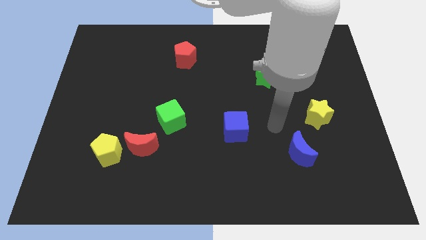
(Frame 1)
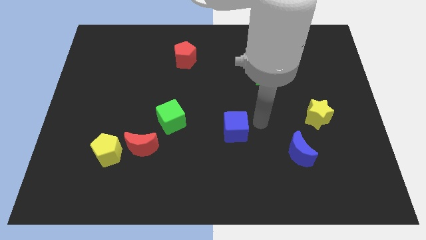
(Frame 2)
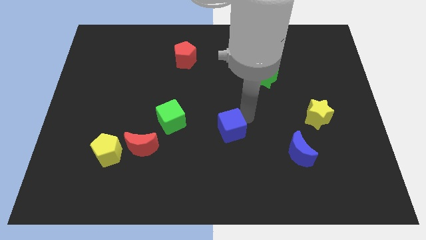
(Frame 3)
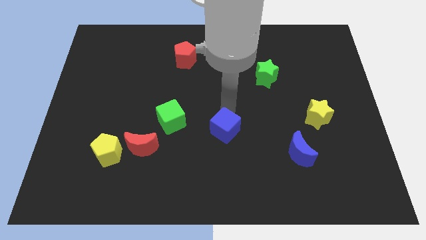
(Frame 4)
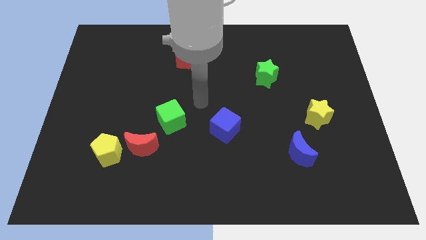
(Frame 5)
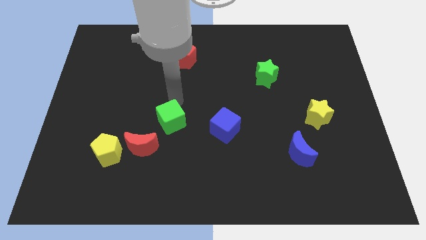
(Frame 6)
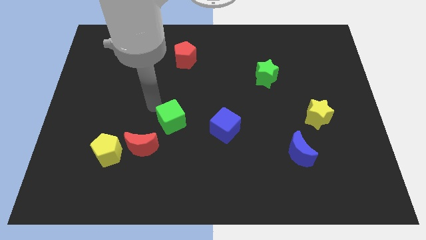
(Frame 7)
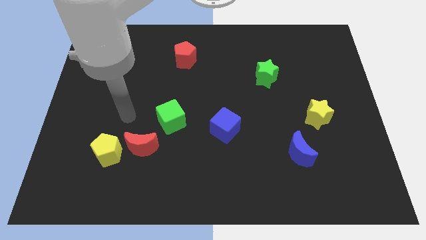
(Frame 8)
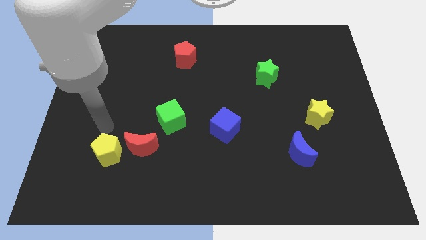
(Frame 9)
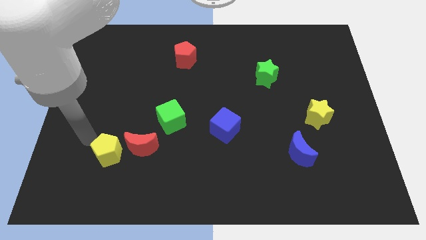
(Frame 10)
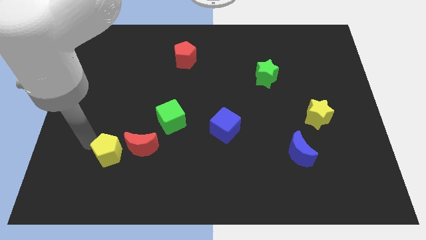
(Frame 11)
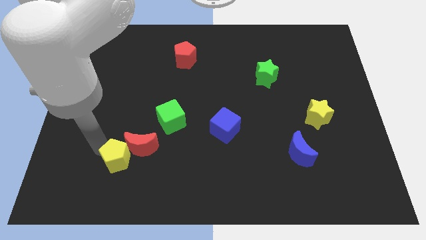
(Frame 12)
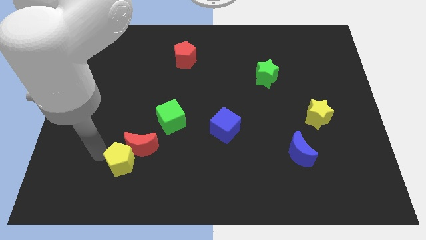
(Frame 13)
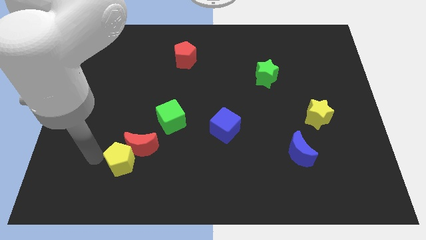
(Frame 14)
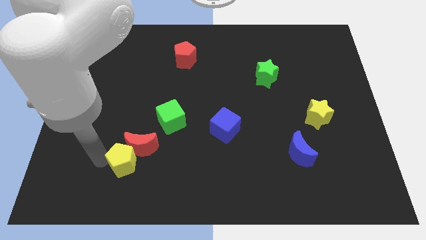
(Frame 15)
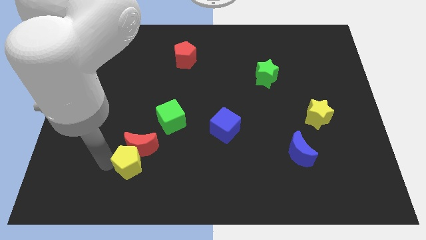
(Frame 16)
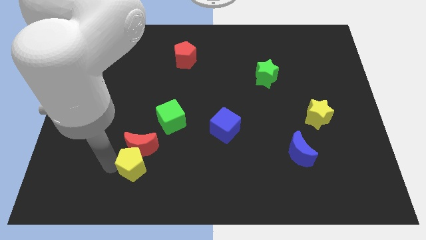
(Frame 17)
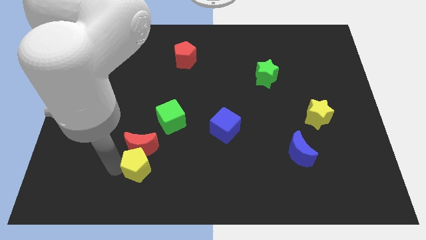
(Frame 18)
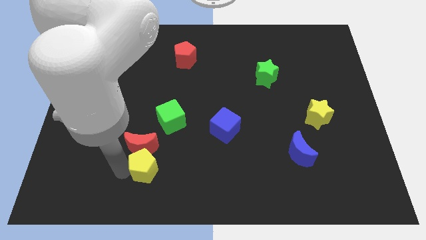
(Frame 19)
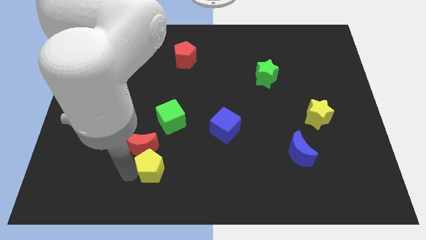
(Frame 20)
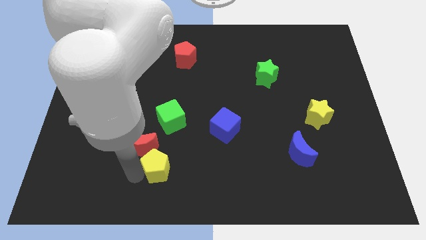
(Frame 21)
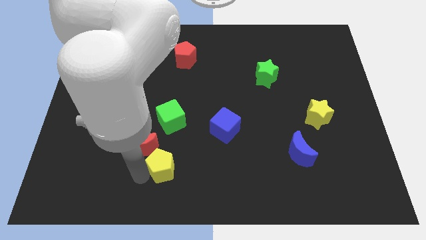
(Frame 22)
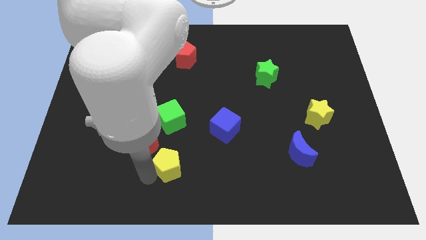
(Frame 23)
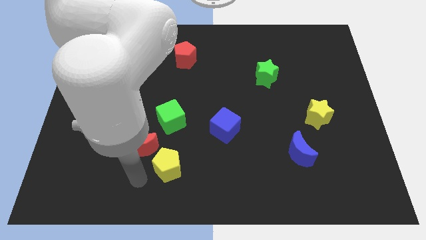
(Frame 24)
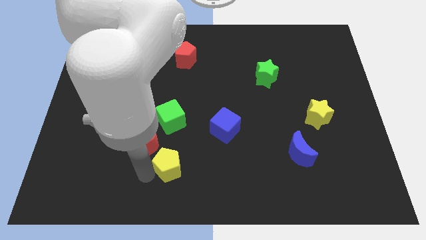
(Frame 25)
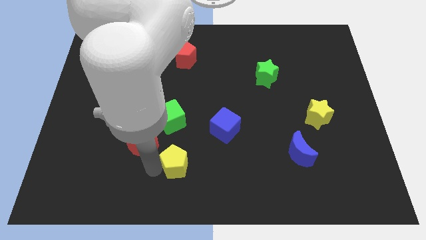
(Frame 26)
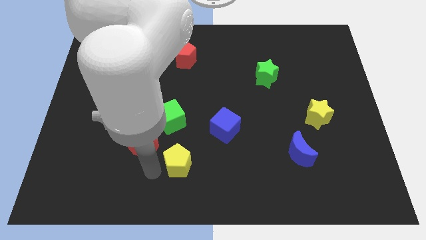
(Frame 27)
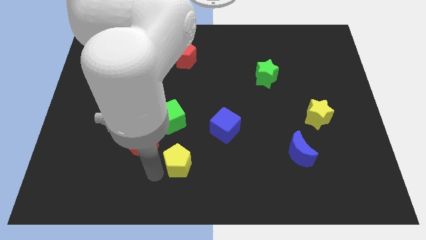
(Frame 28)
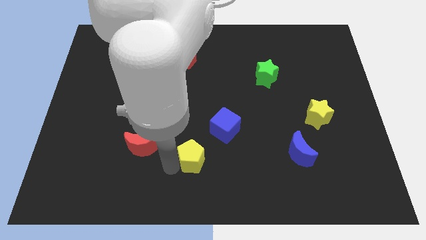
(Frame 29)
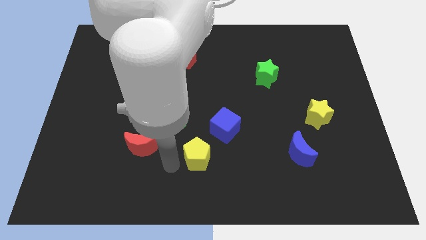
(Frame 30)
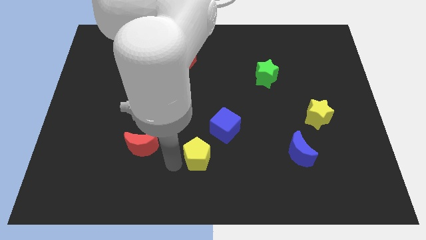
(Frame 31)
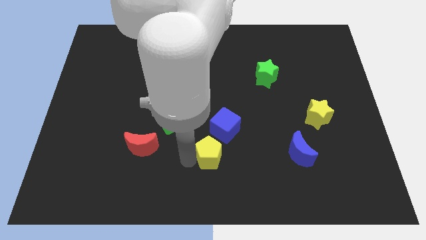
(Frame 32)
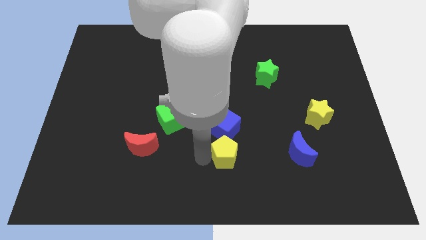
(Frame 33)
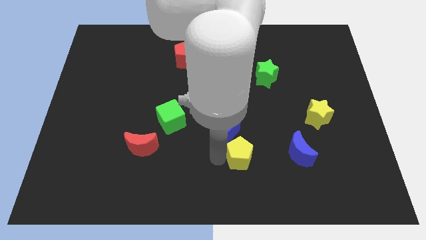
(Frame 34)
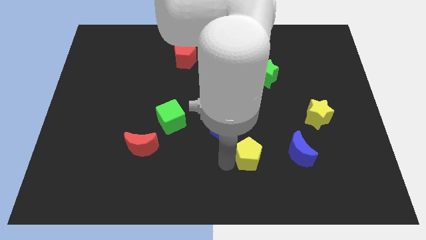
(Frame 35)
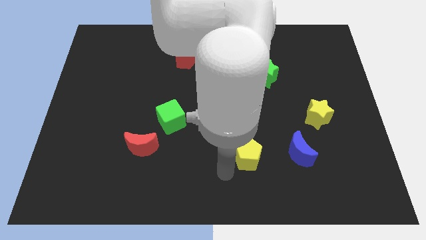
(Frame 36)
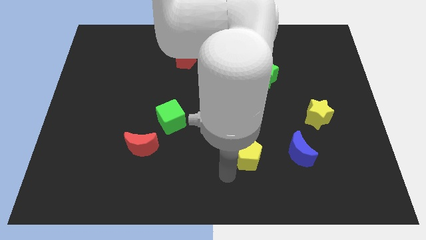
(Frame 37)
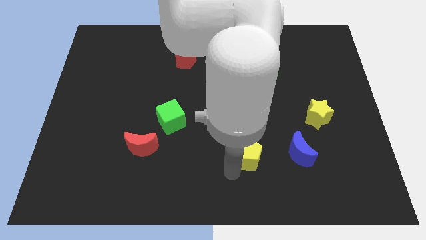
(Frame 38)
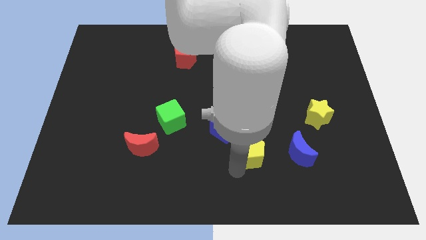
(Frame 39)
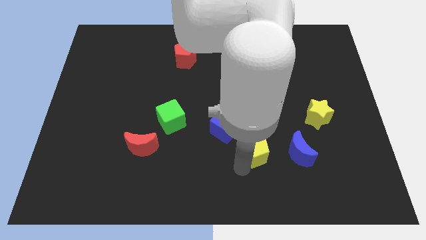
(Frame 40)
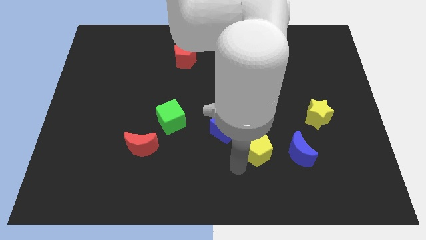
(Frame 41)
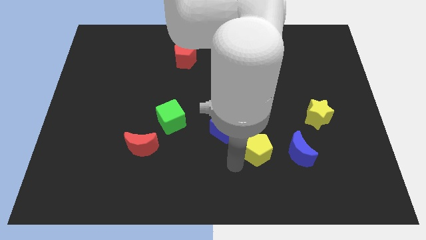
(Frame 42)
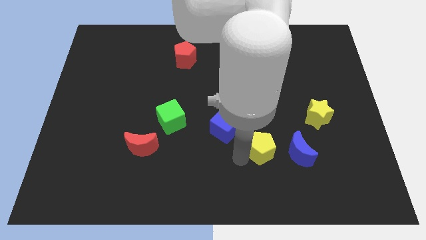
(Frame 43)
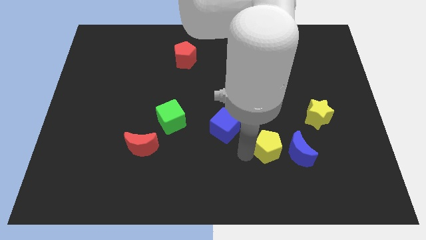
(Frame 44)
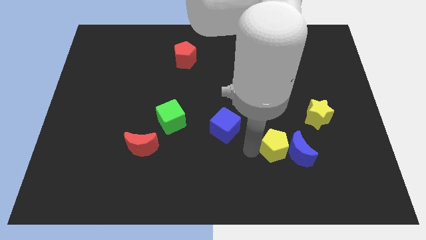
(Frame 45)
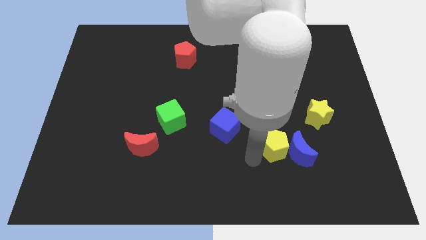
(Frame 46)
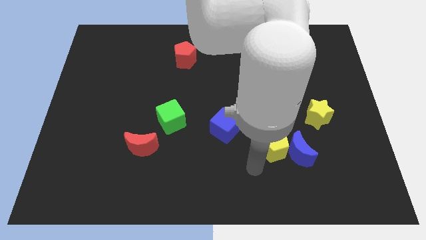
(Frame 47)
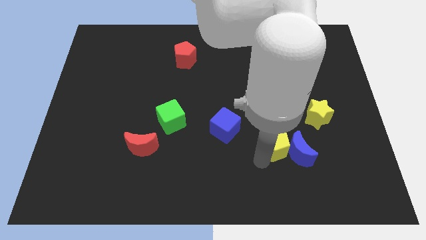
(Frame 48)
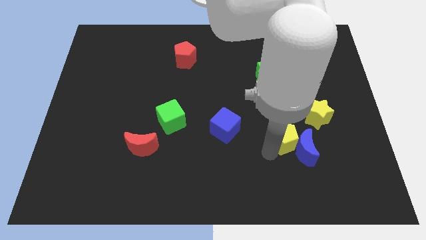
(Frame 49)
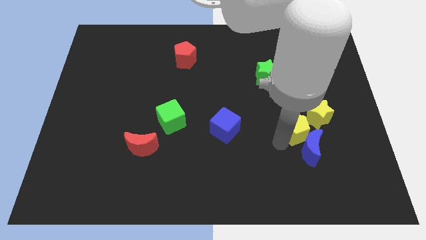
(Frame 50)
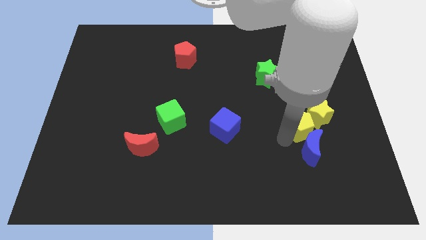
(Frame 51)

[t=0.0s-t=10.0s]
put the yellow pentagon close to the yellow star

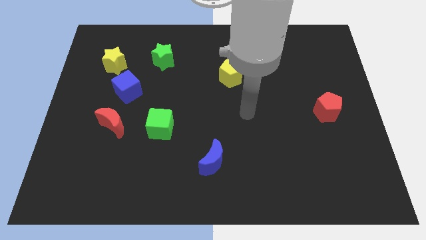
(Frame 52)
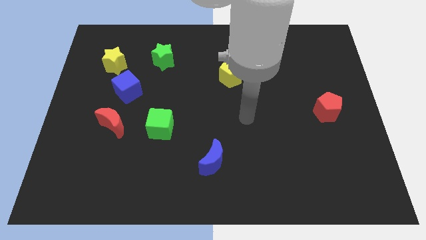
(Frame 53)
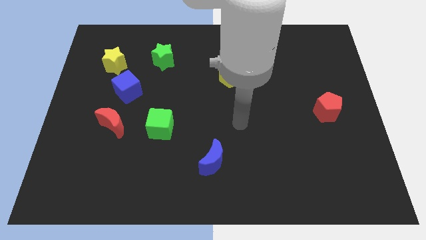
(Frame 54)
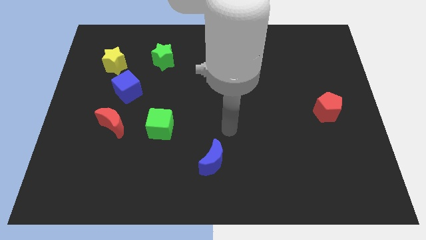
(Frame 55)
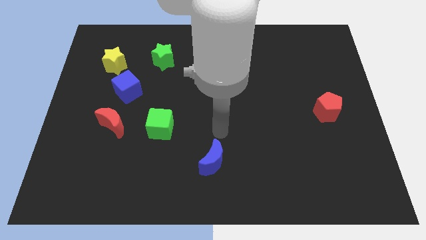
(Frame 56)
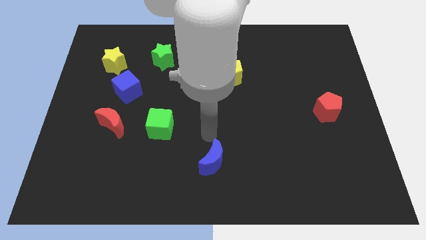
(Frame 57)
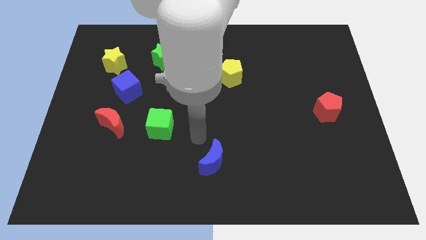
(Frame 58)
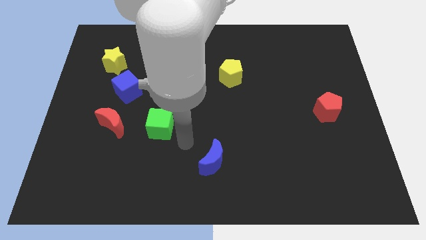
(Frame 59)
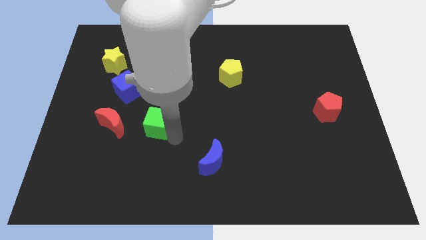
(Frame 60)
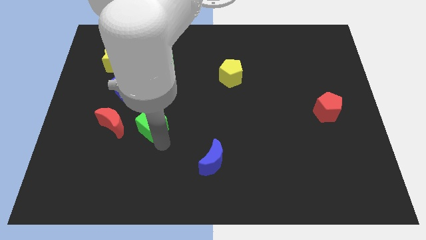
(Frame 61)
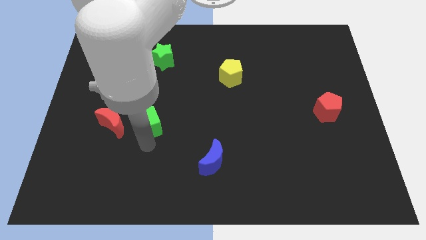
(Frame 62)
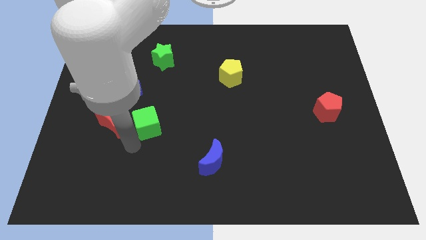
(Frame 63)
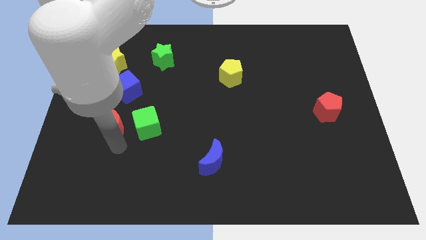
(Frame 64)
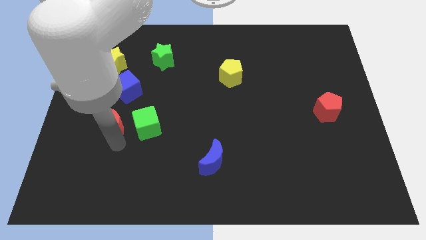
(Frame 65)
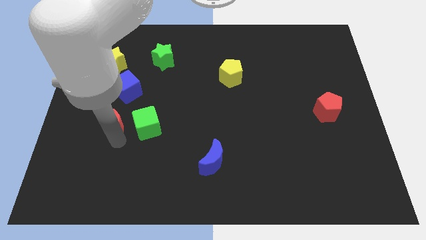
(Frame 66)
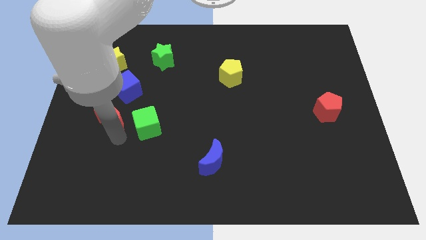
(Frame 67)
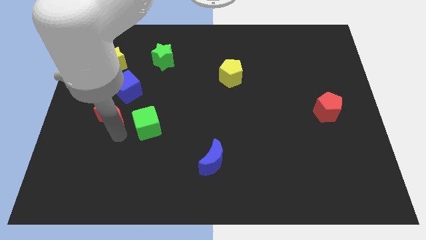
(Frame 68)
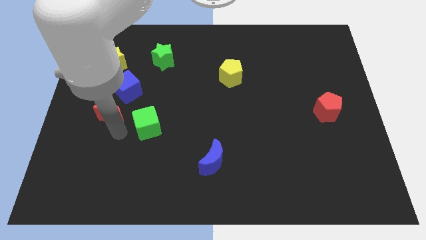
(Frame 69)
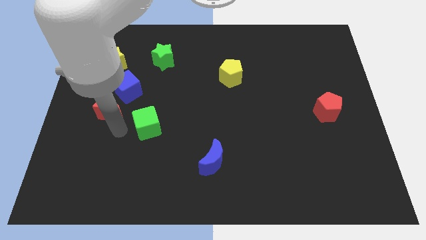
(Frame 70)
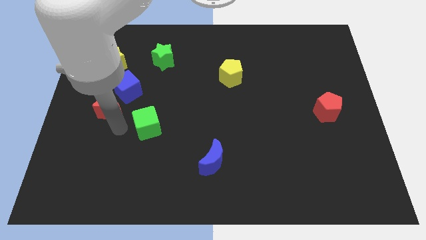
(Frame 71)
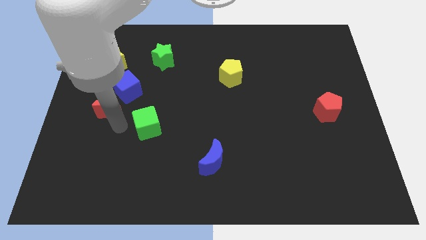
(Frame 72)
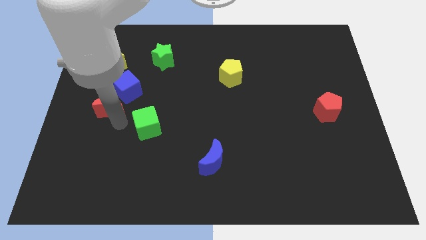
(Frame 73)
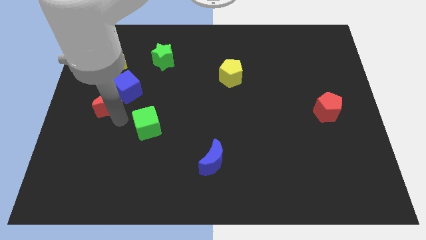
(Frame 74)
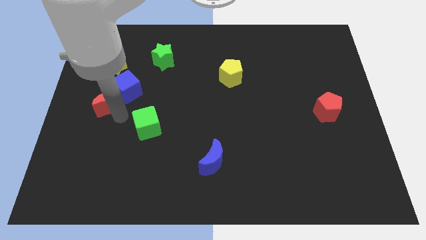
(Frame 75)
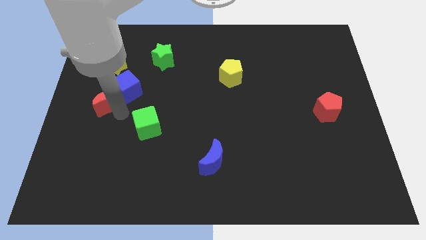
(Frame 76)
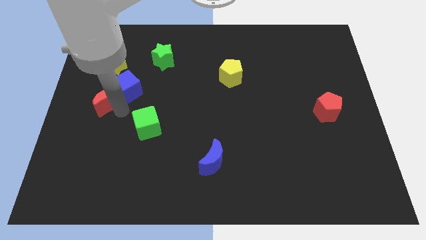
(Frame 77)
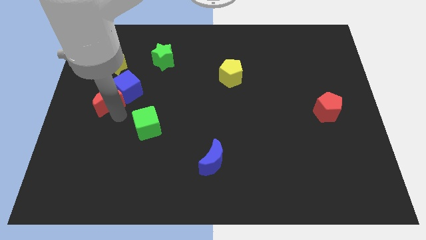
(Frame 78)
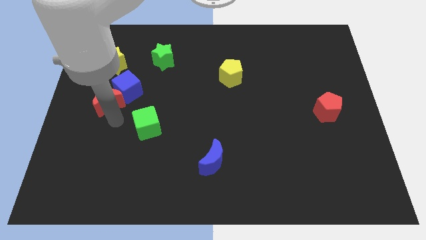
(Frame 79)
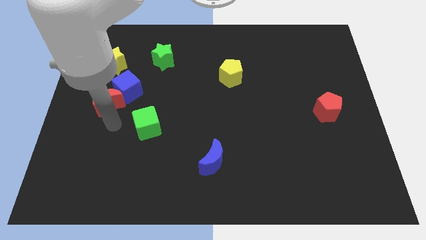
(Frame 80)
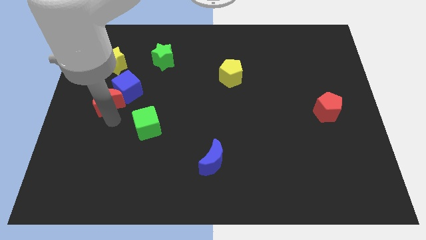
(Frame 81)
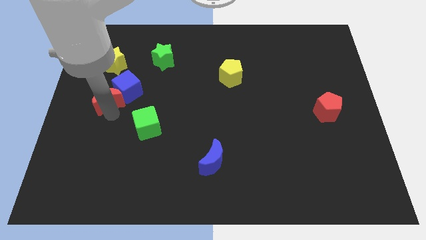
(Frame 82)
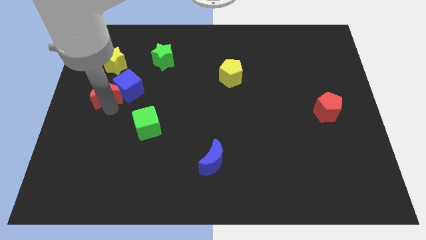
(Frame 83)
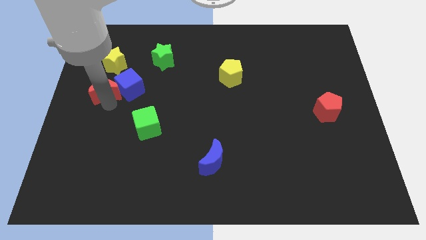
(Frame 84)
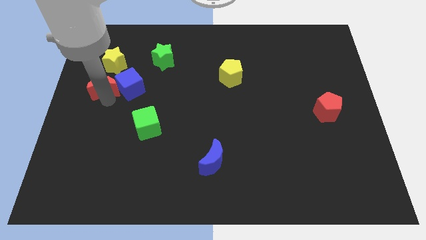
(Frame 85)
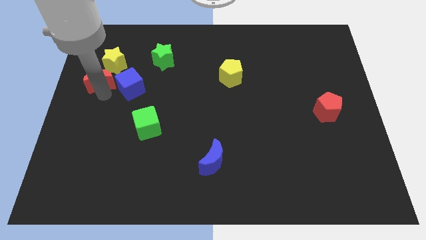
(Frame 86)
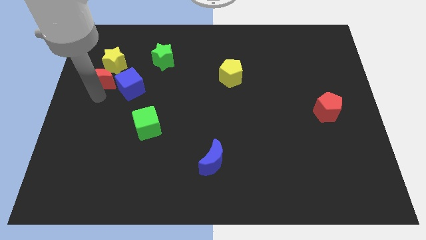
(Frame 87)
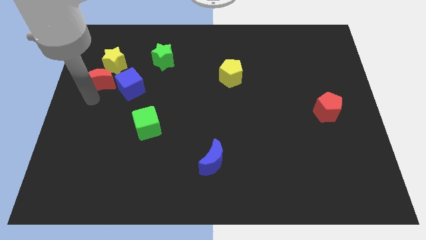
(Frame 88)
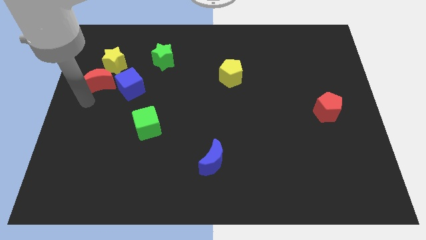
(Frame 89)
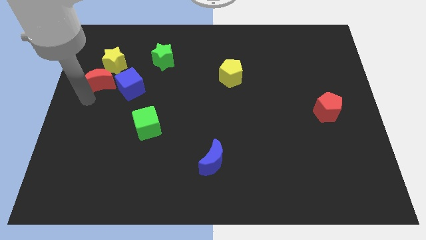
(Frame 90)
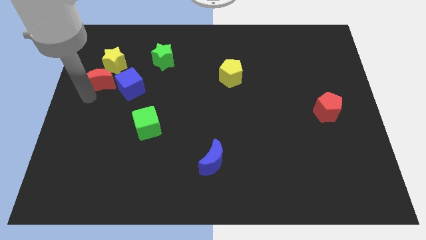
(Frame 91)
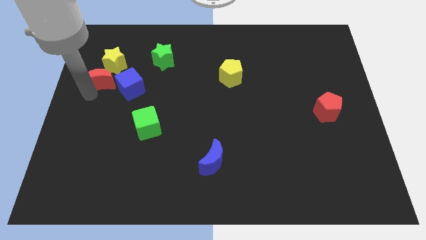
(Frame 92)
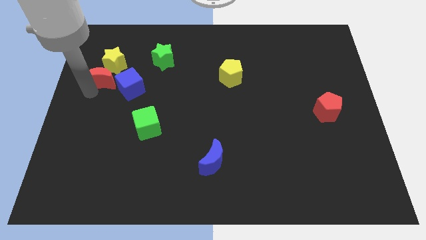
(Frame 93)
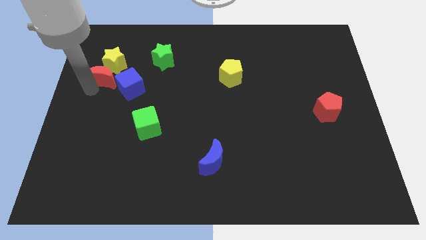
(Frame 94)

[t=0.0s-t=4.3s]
push the red moon next to the yellow star
